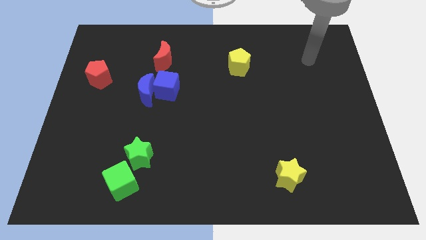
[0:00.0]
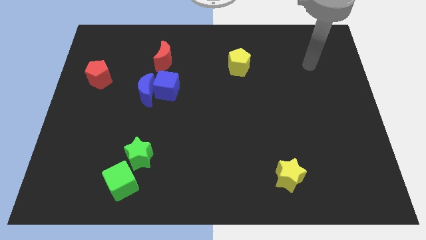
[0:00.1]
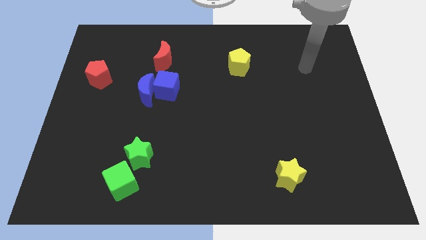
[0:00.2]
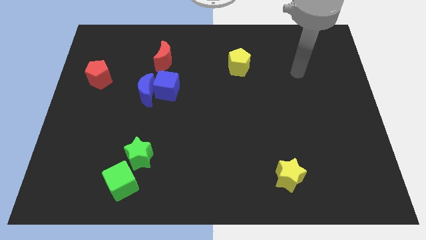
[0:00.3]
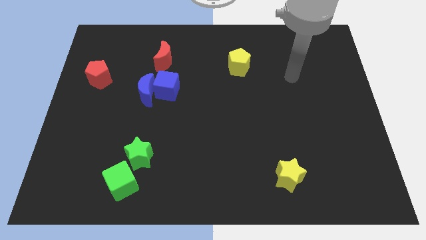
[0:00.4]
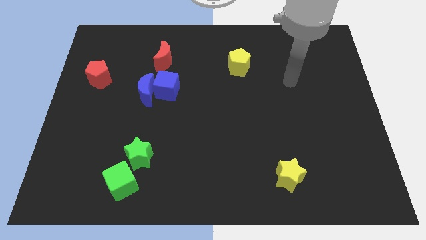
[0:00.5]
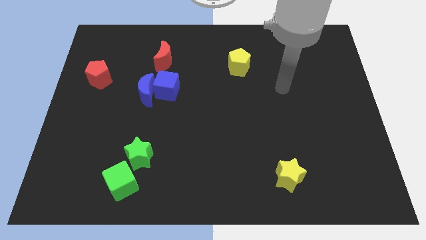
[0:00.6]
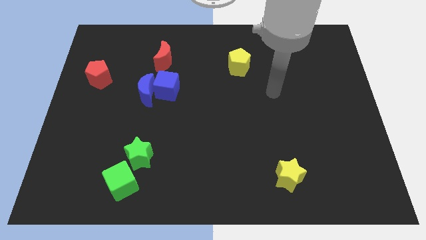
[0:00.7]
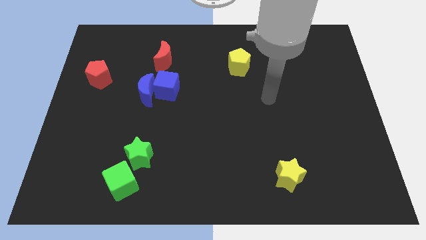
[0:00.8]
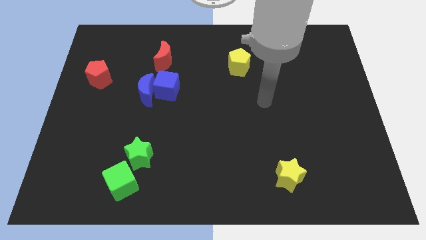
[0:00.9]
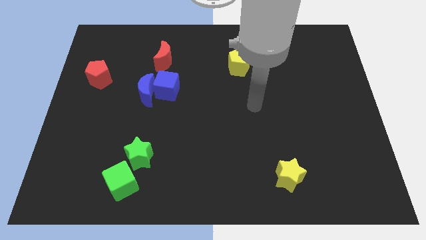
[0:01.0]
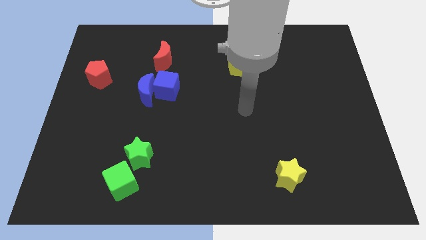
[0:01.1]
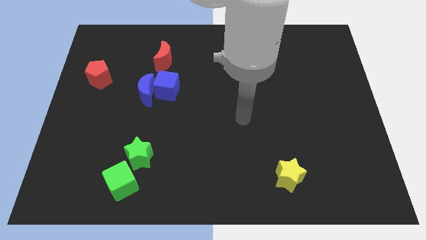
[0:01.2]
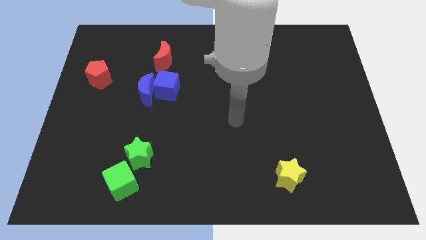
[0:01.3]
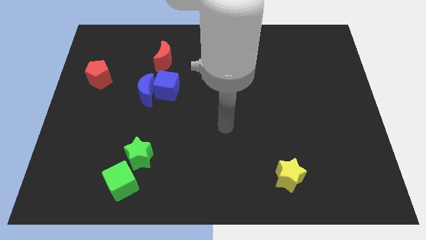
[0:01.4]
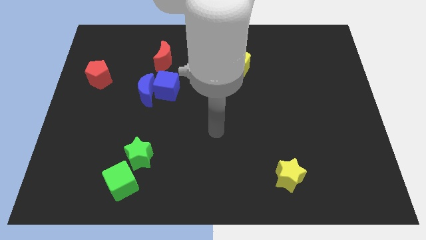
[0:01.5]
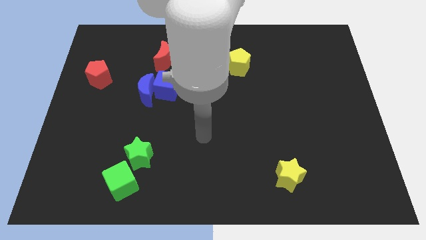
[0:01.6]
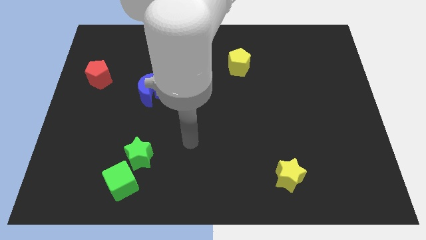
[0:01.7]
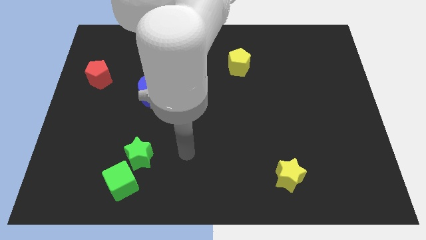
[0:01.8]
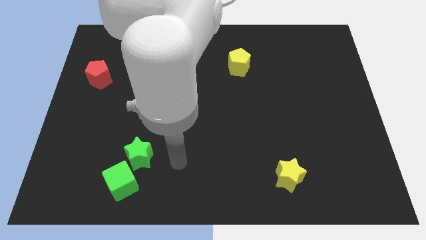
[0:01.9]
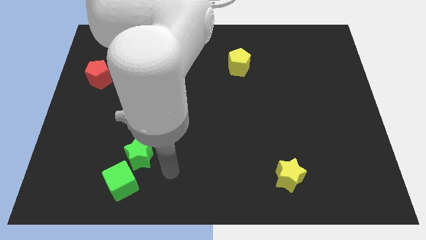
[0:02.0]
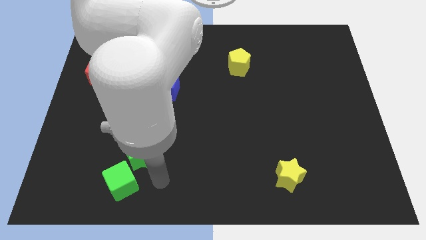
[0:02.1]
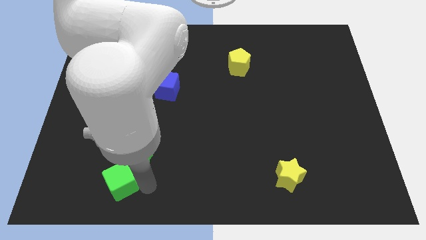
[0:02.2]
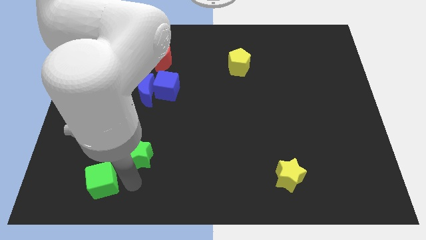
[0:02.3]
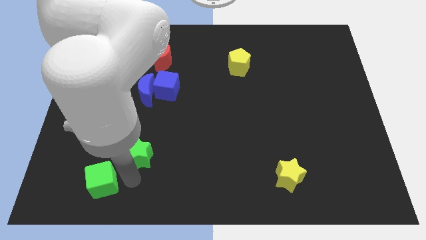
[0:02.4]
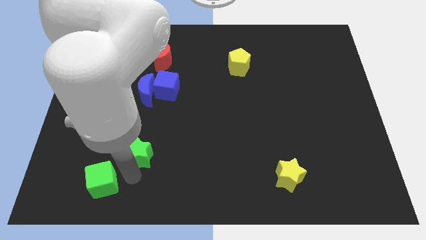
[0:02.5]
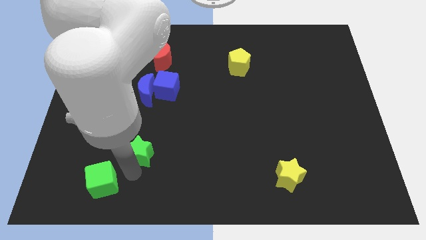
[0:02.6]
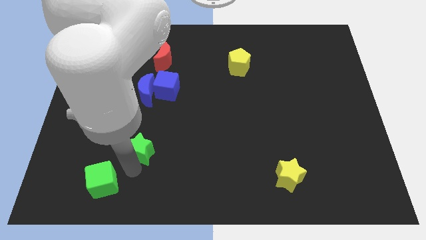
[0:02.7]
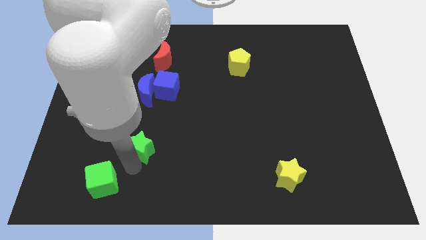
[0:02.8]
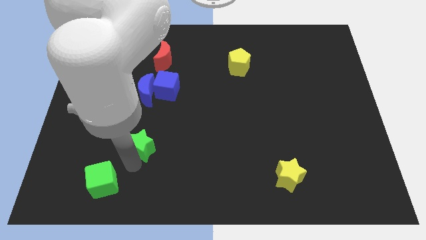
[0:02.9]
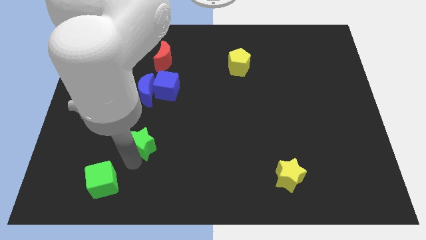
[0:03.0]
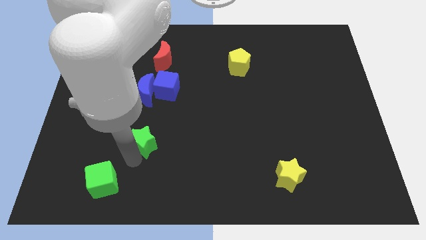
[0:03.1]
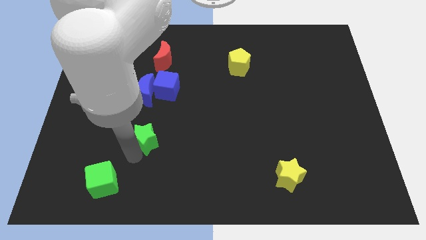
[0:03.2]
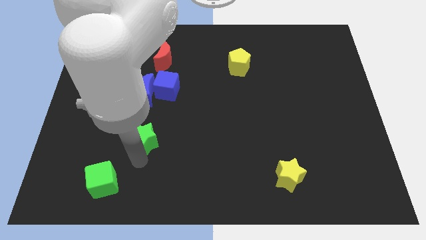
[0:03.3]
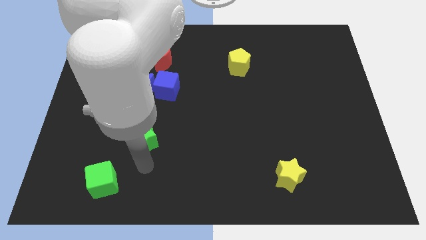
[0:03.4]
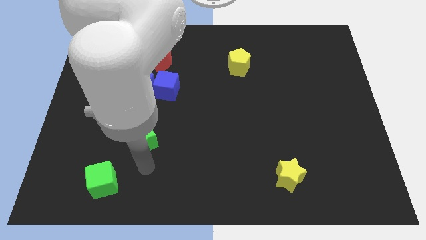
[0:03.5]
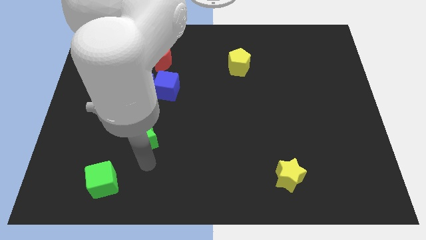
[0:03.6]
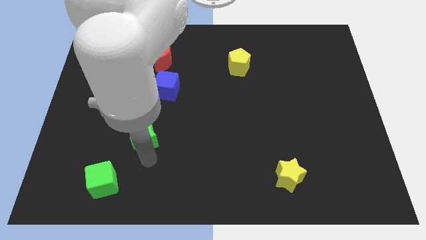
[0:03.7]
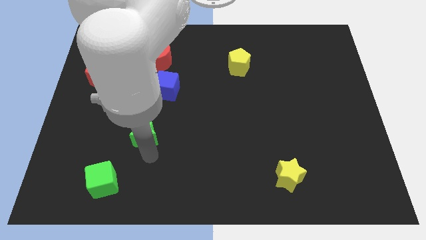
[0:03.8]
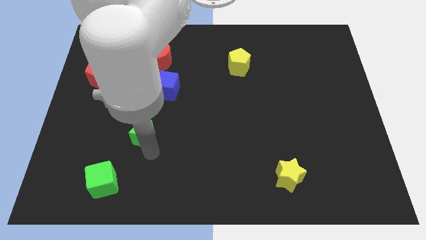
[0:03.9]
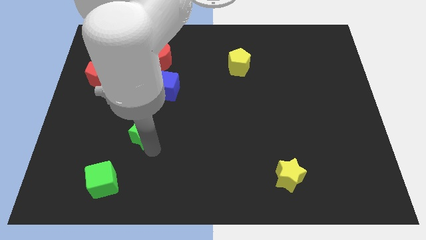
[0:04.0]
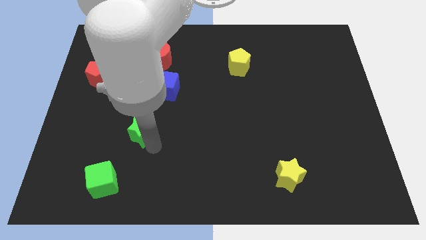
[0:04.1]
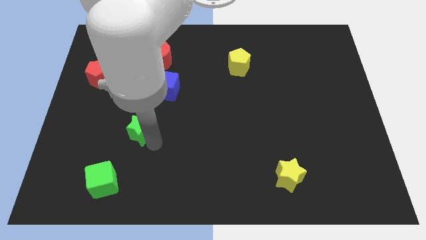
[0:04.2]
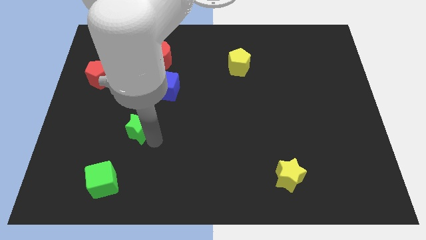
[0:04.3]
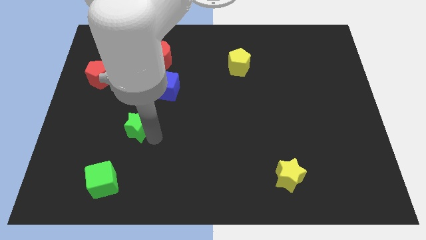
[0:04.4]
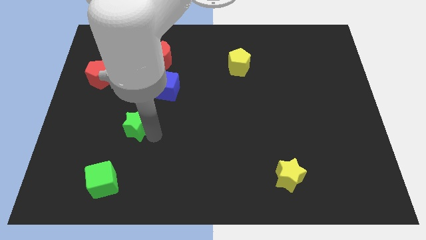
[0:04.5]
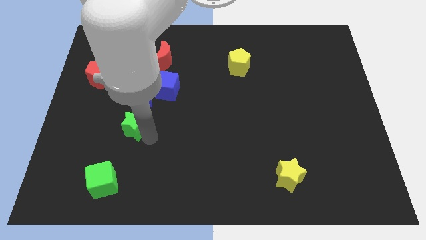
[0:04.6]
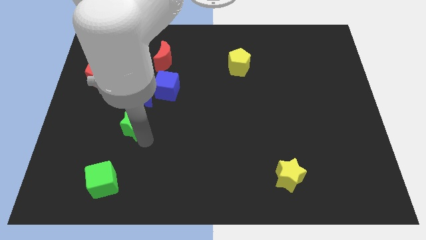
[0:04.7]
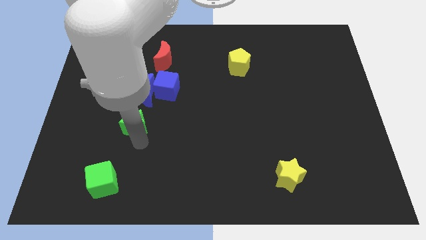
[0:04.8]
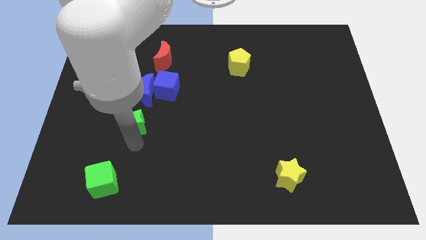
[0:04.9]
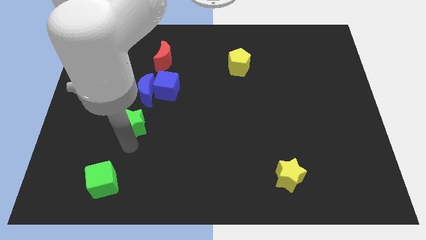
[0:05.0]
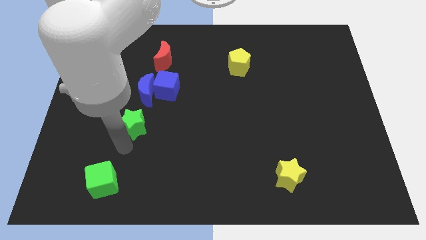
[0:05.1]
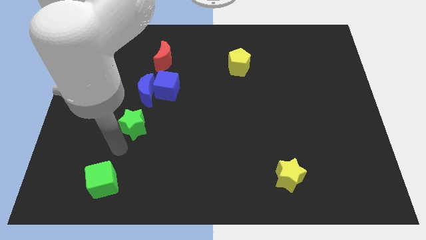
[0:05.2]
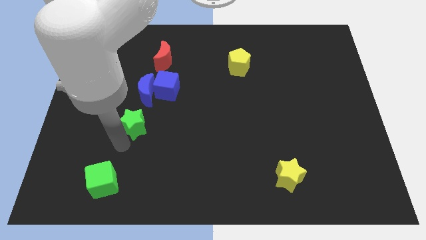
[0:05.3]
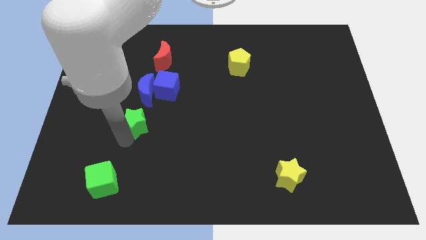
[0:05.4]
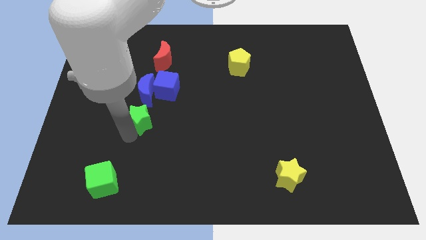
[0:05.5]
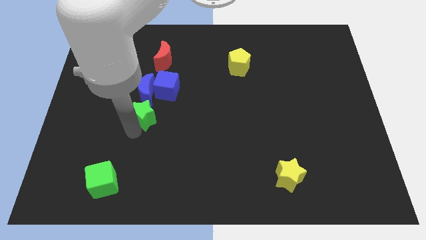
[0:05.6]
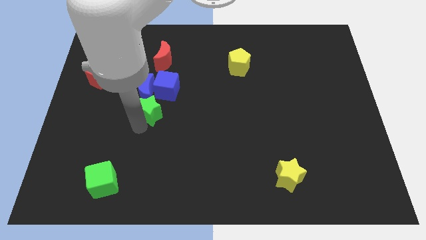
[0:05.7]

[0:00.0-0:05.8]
move the green star close to the blue moon

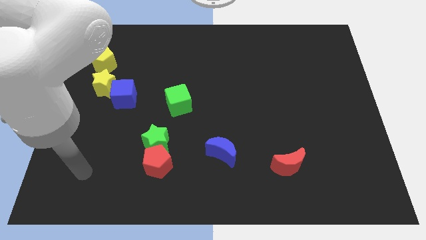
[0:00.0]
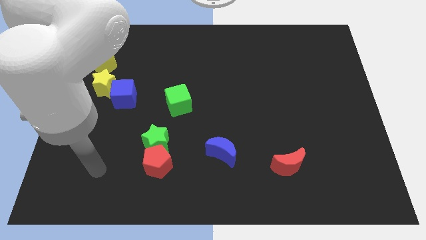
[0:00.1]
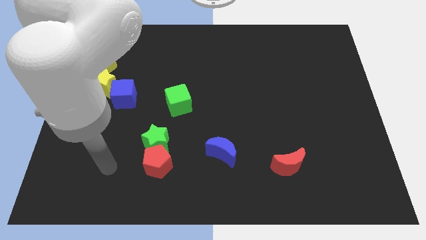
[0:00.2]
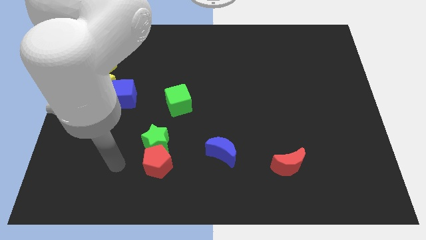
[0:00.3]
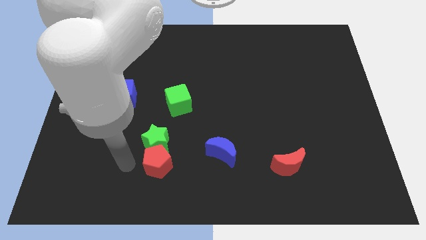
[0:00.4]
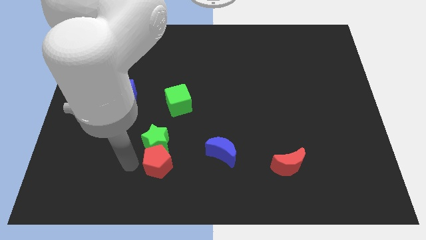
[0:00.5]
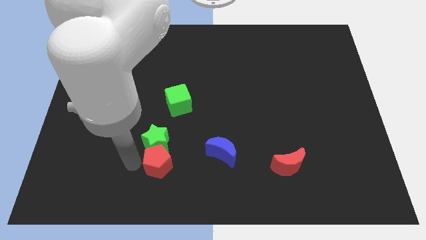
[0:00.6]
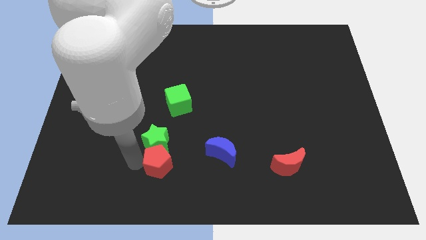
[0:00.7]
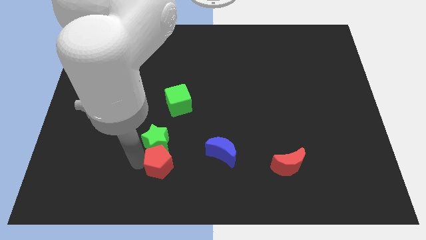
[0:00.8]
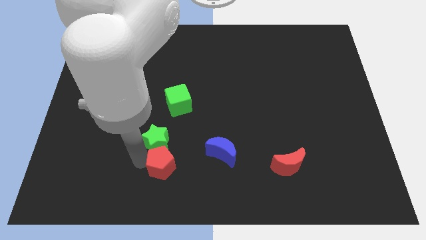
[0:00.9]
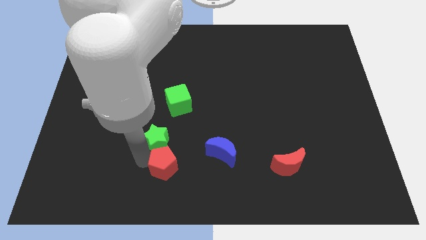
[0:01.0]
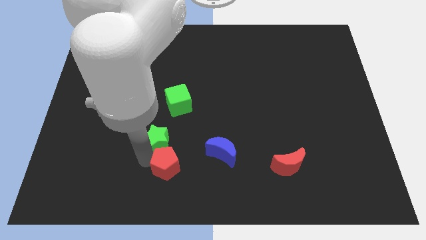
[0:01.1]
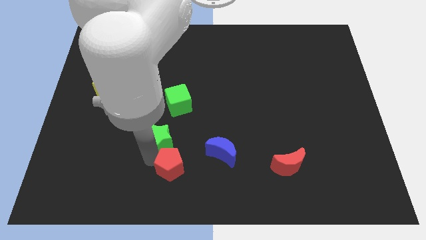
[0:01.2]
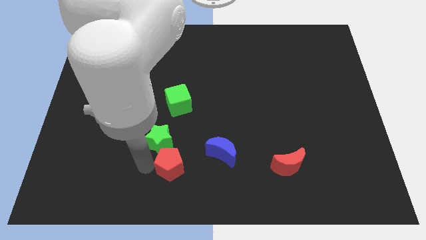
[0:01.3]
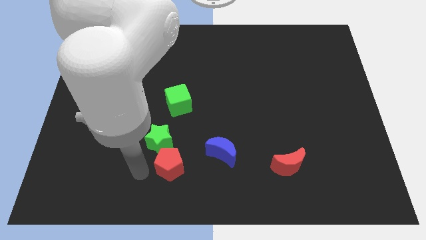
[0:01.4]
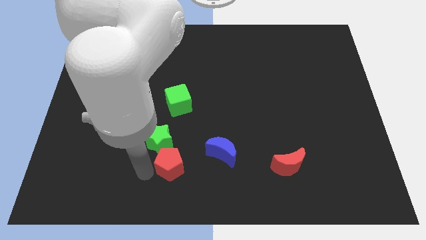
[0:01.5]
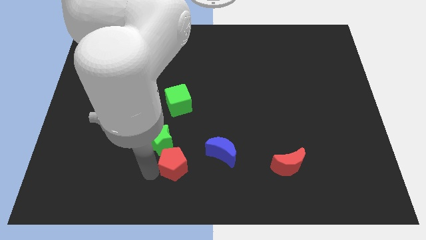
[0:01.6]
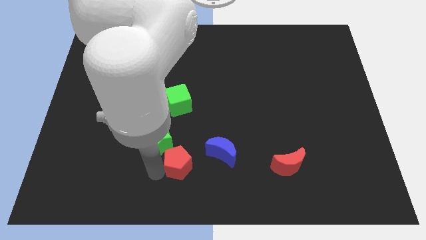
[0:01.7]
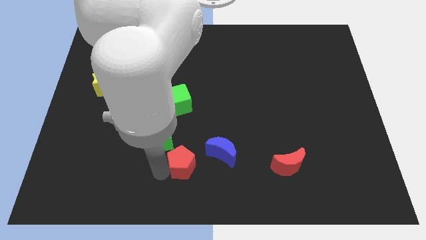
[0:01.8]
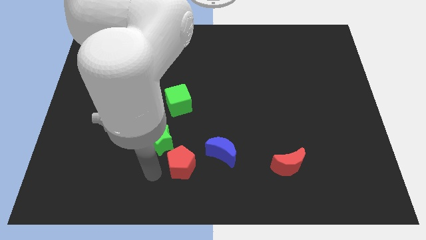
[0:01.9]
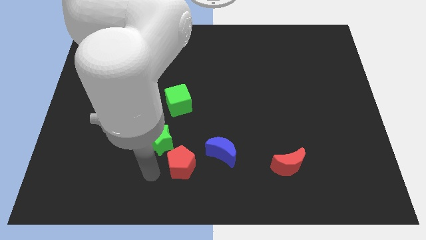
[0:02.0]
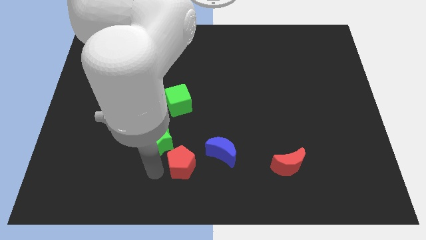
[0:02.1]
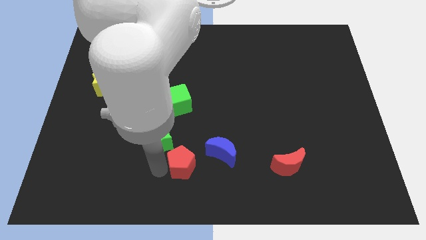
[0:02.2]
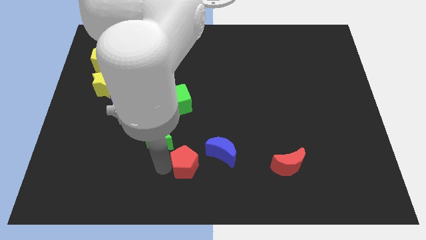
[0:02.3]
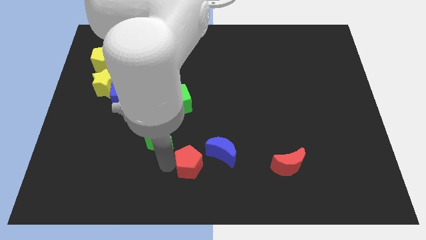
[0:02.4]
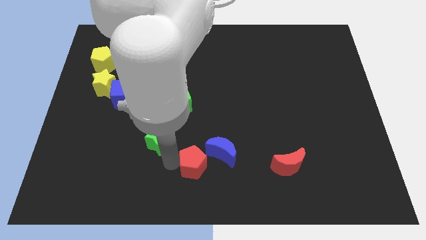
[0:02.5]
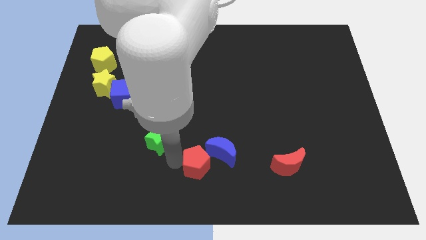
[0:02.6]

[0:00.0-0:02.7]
push the red pentagon towards the blue moon
